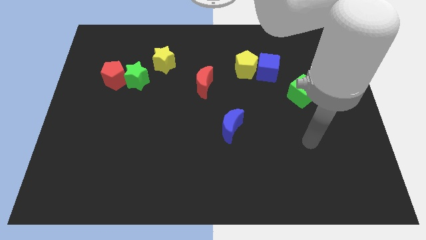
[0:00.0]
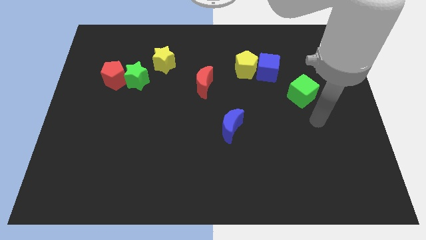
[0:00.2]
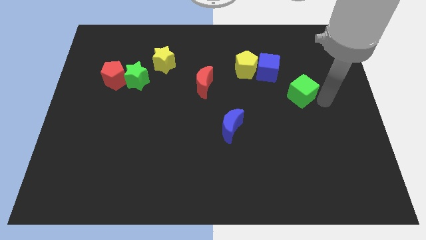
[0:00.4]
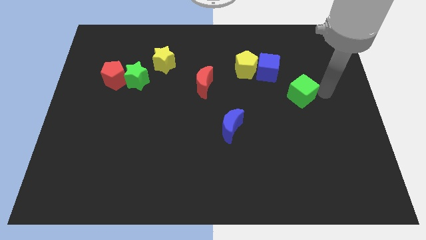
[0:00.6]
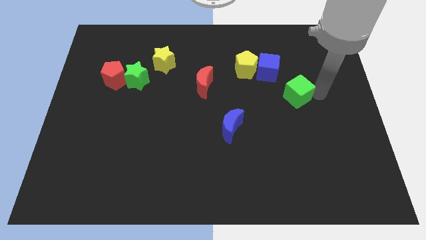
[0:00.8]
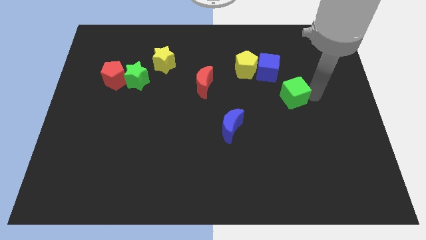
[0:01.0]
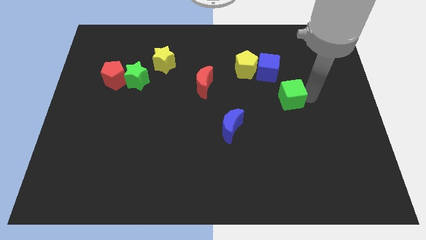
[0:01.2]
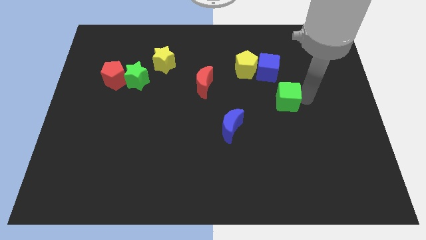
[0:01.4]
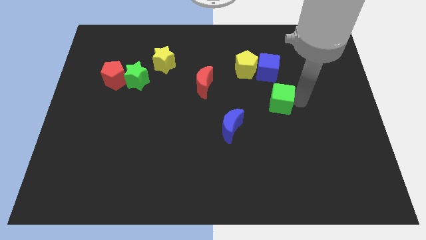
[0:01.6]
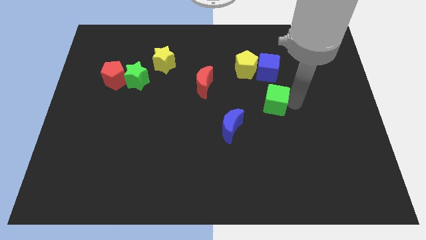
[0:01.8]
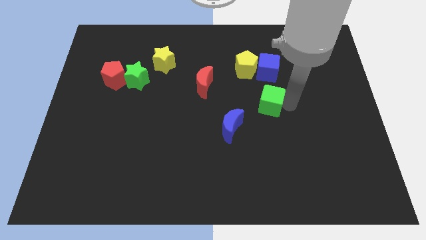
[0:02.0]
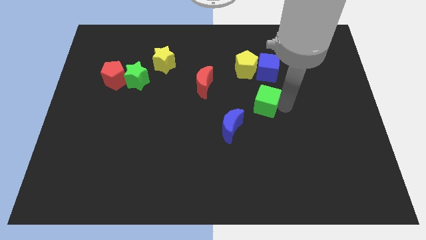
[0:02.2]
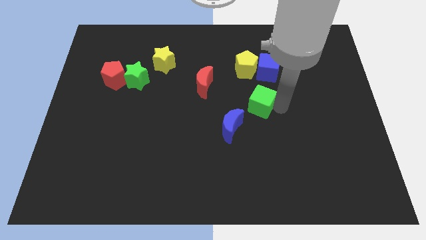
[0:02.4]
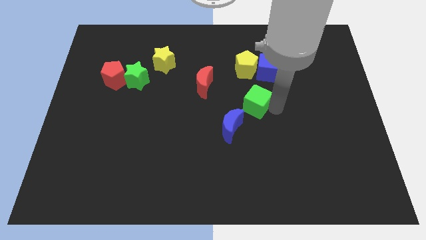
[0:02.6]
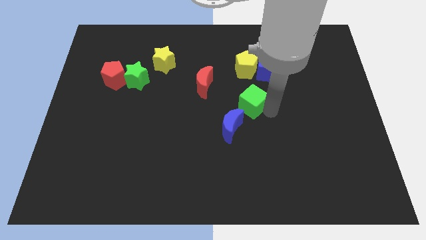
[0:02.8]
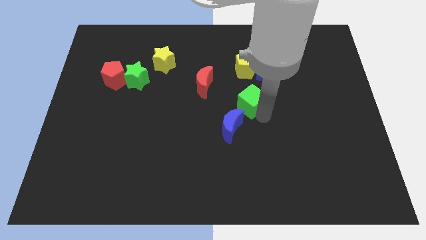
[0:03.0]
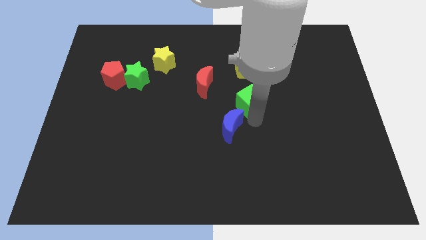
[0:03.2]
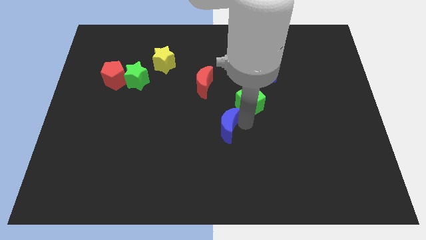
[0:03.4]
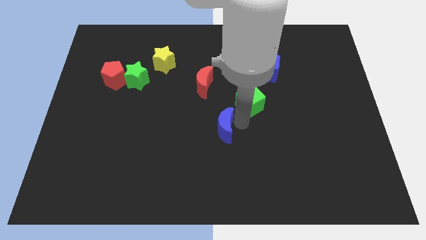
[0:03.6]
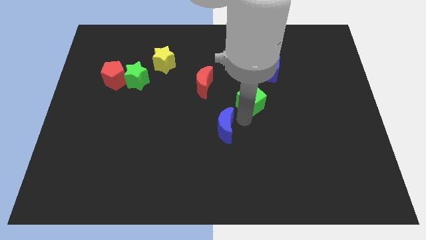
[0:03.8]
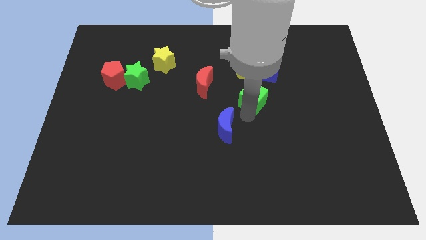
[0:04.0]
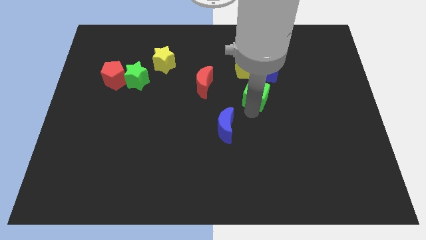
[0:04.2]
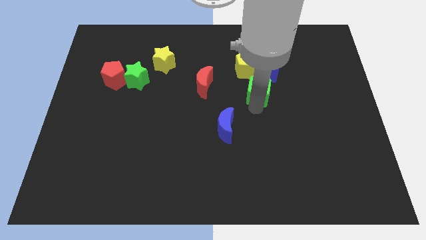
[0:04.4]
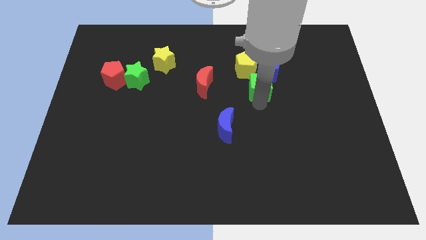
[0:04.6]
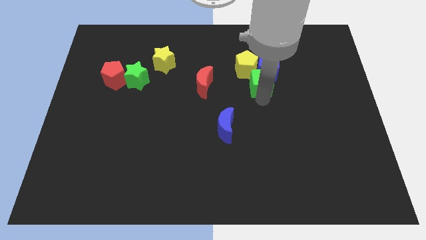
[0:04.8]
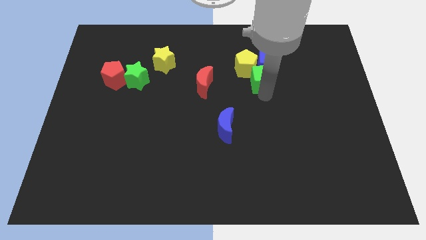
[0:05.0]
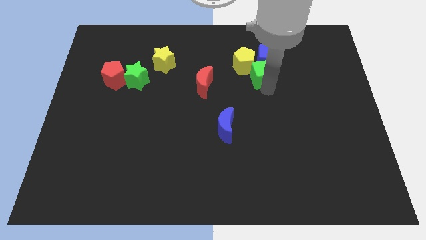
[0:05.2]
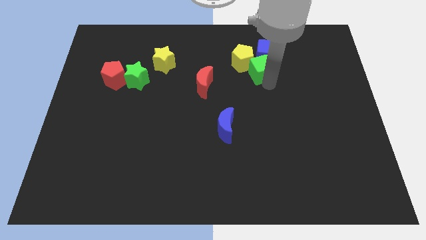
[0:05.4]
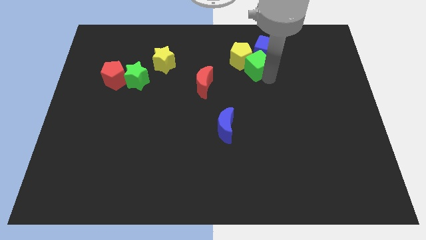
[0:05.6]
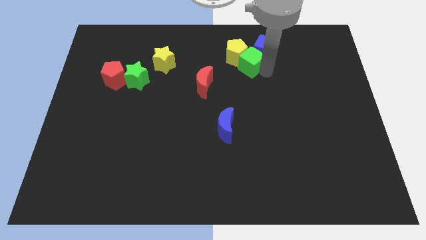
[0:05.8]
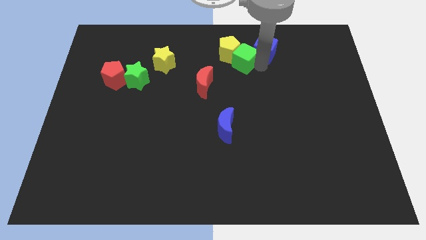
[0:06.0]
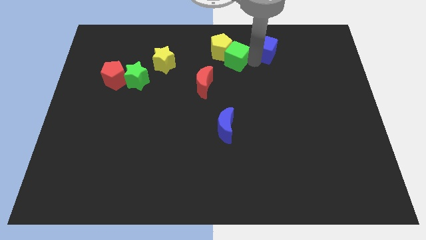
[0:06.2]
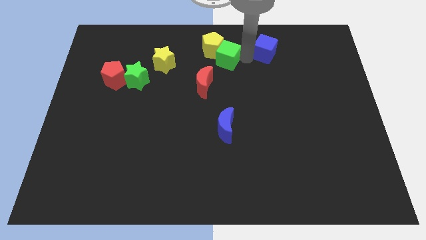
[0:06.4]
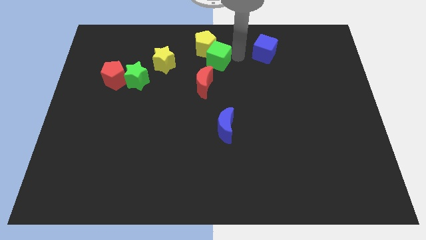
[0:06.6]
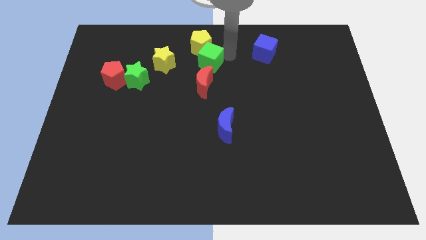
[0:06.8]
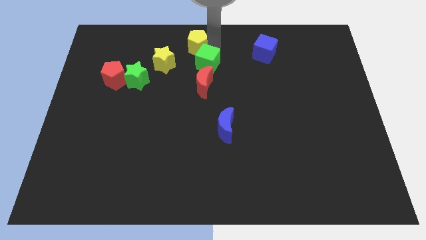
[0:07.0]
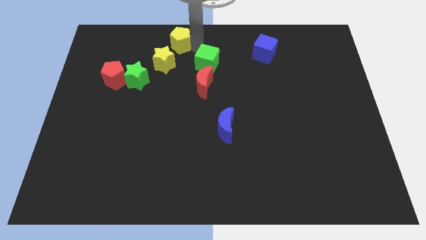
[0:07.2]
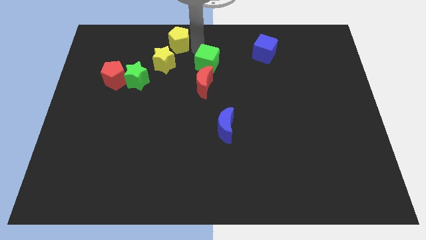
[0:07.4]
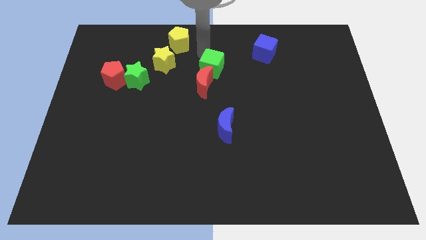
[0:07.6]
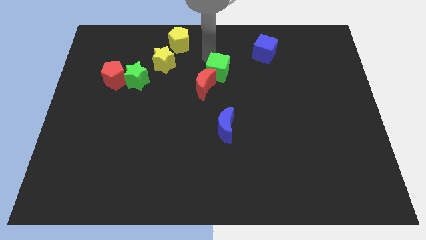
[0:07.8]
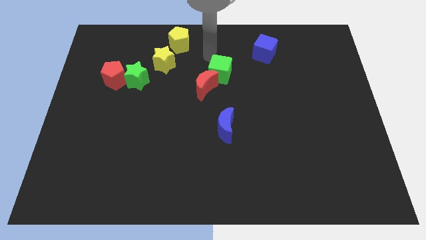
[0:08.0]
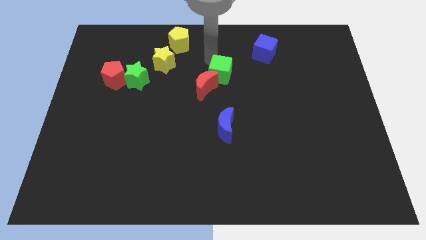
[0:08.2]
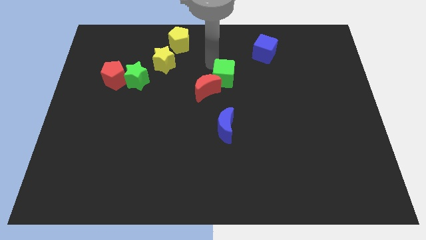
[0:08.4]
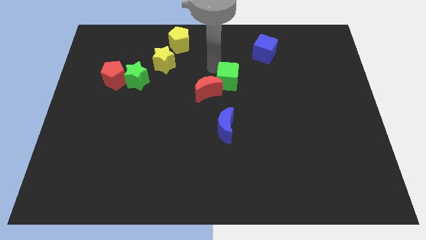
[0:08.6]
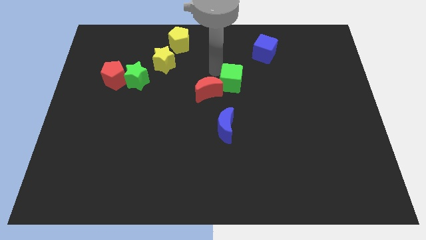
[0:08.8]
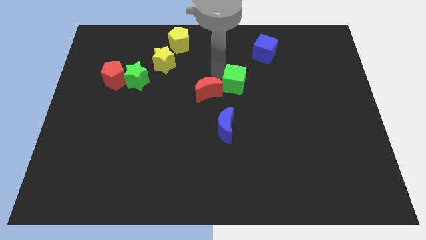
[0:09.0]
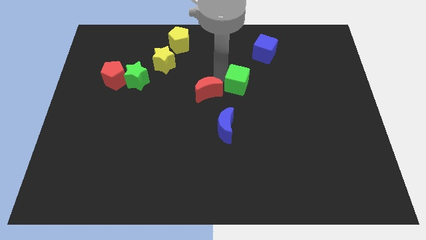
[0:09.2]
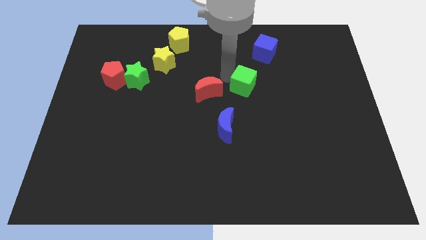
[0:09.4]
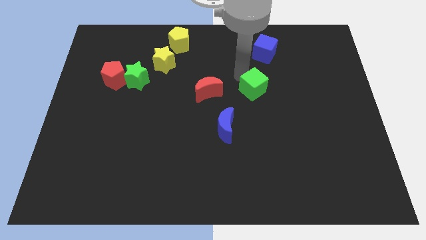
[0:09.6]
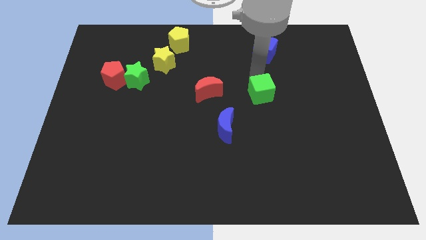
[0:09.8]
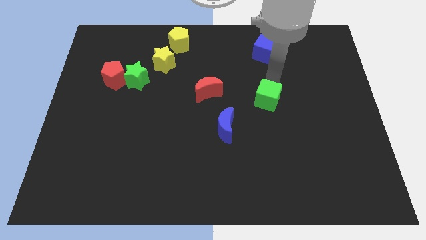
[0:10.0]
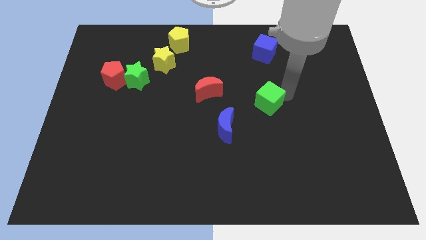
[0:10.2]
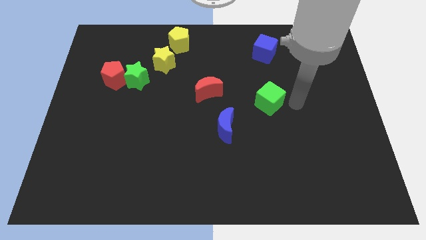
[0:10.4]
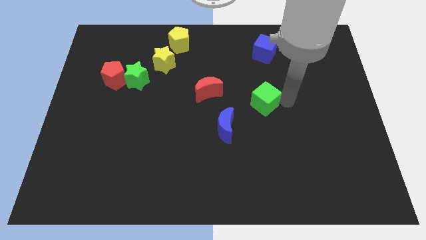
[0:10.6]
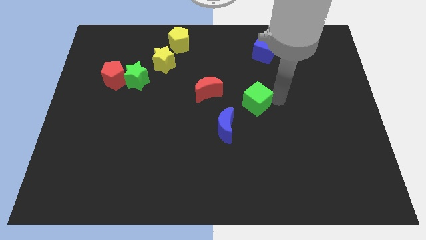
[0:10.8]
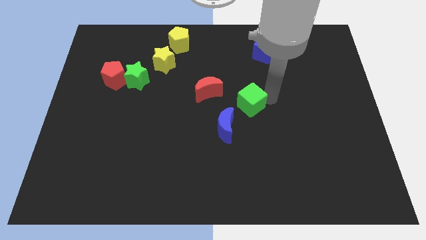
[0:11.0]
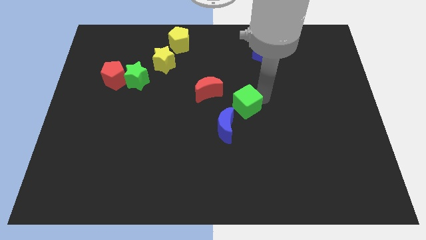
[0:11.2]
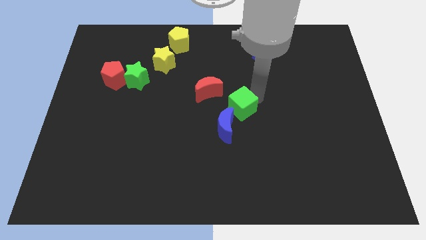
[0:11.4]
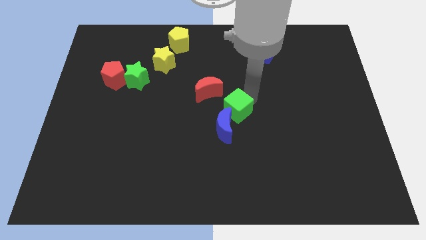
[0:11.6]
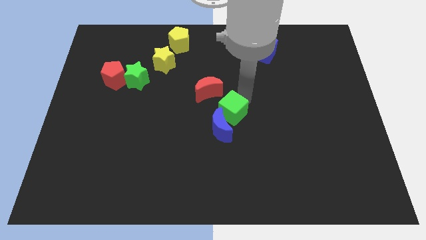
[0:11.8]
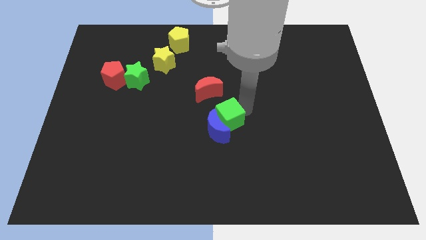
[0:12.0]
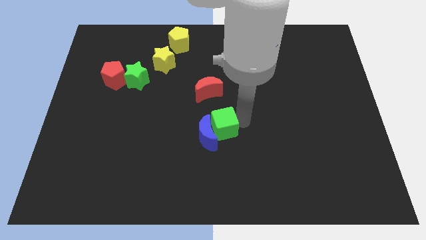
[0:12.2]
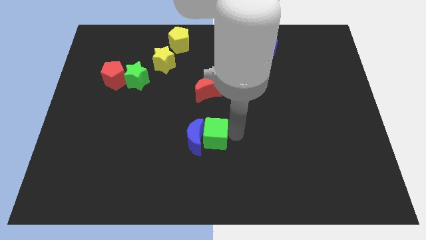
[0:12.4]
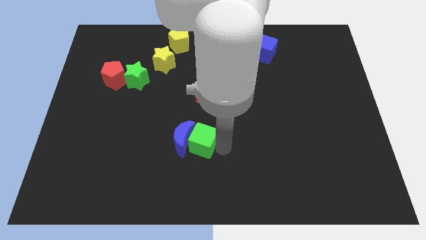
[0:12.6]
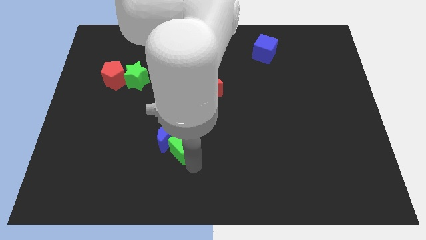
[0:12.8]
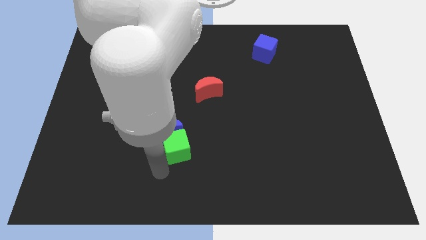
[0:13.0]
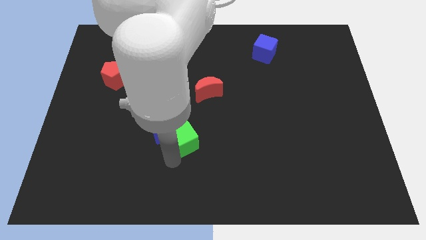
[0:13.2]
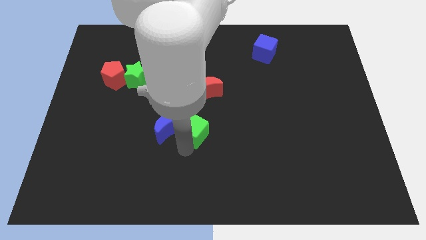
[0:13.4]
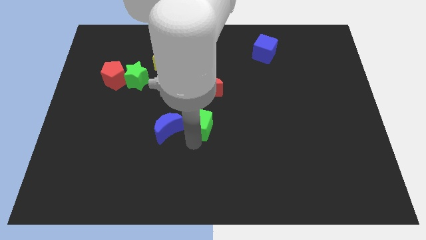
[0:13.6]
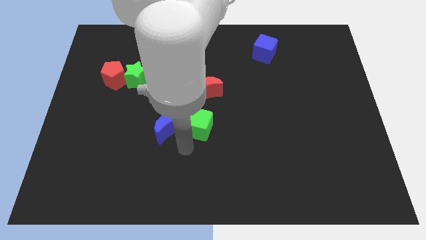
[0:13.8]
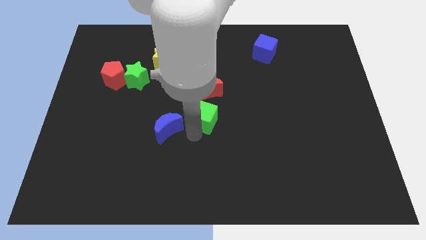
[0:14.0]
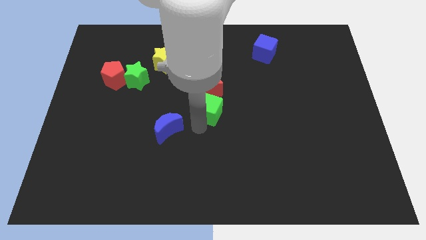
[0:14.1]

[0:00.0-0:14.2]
move the green cube to the bottom left of the red moon
